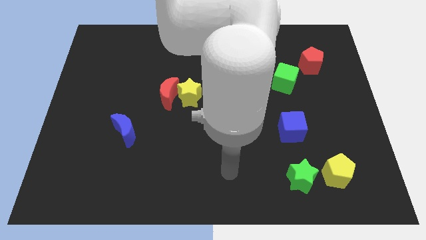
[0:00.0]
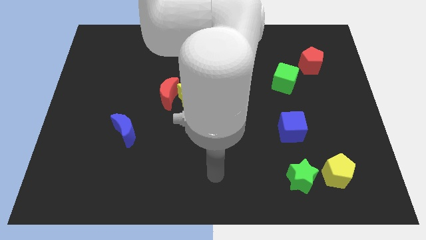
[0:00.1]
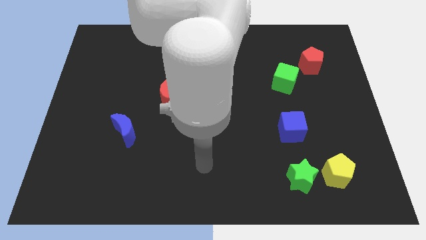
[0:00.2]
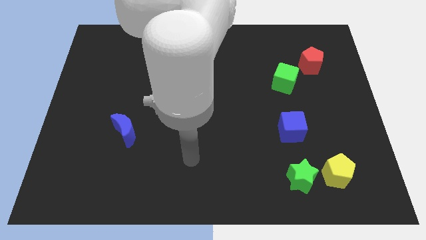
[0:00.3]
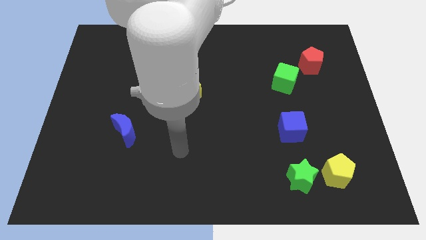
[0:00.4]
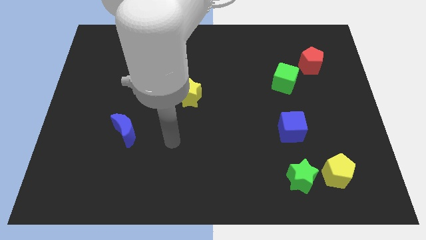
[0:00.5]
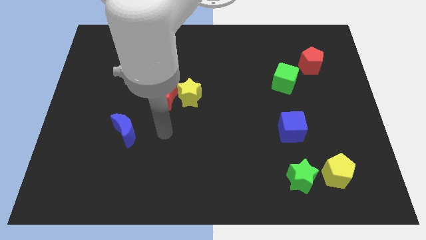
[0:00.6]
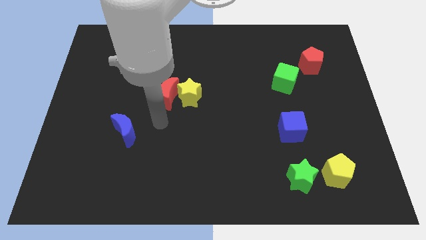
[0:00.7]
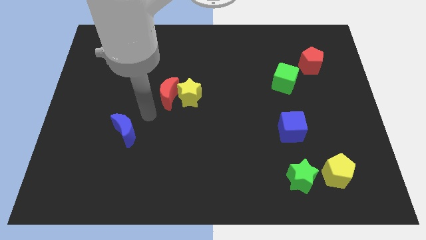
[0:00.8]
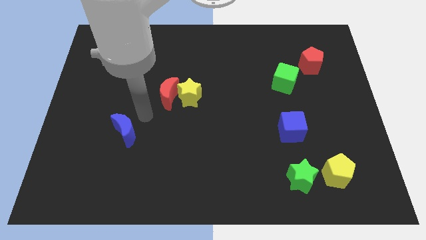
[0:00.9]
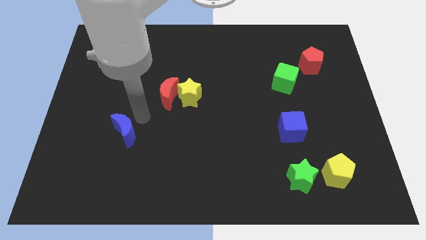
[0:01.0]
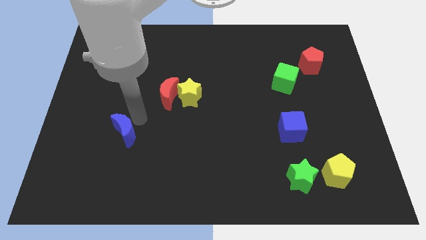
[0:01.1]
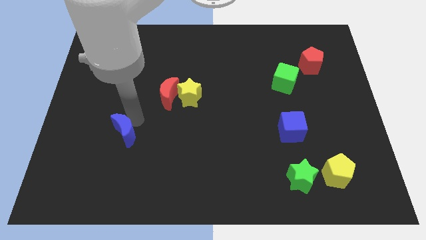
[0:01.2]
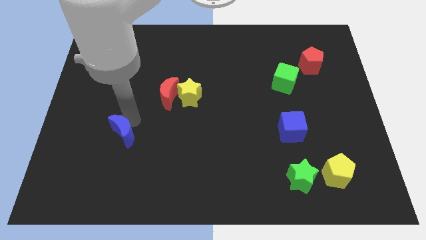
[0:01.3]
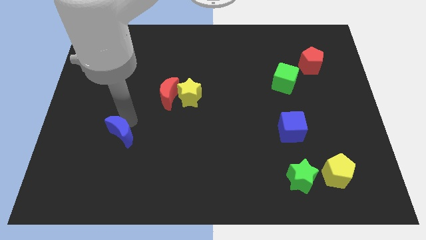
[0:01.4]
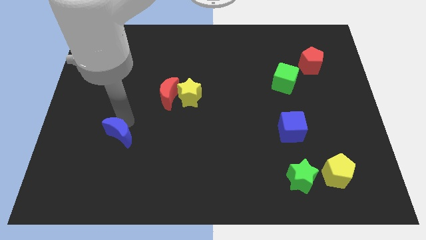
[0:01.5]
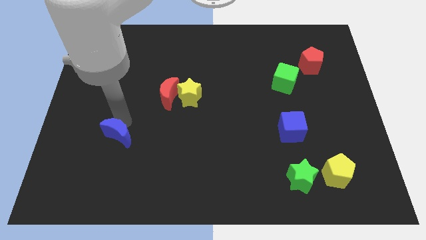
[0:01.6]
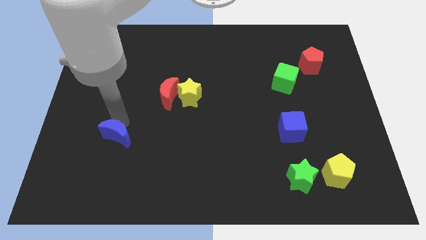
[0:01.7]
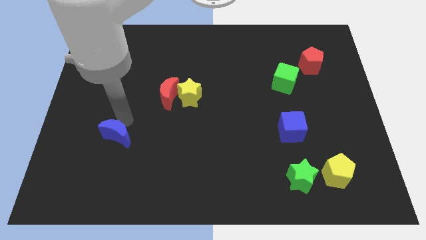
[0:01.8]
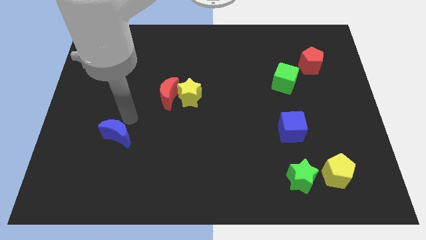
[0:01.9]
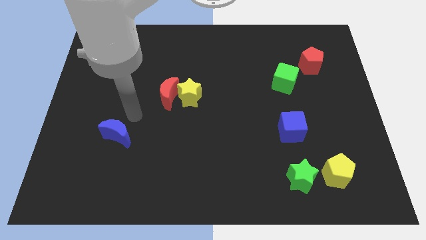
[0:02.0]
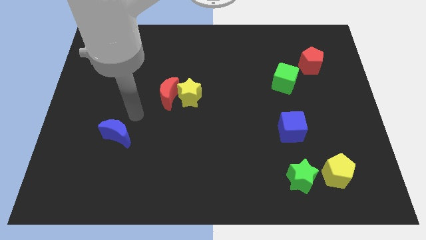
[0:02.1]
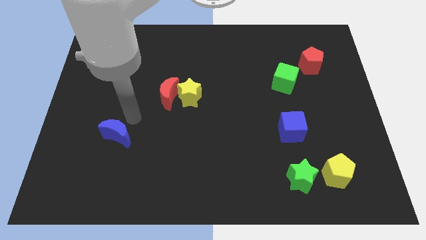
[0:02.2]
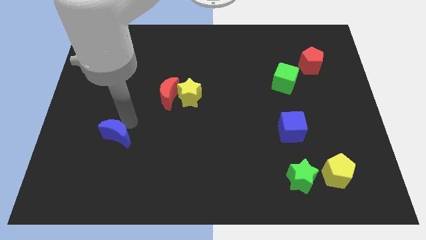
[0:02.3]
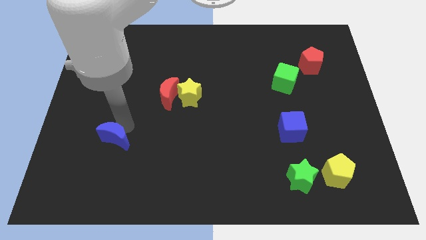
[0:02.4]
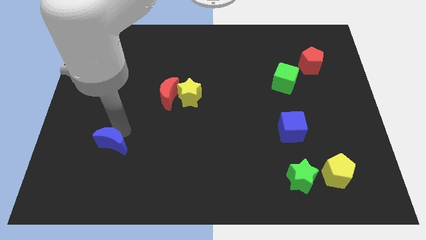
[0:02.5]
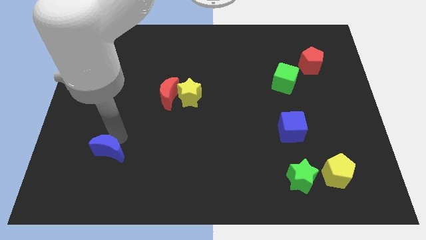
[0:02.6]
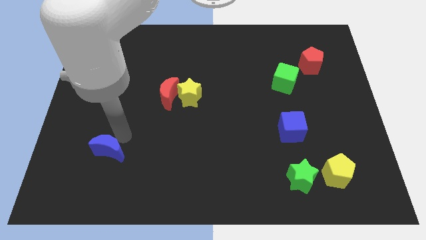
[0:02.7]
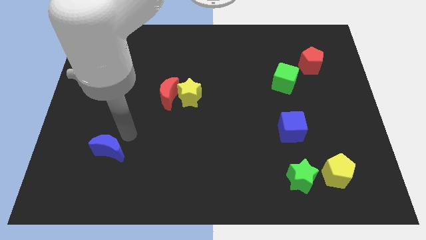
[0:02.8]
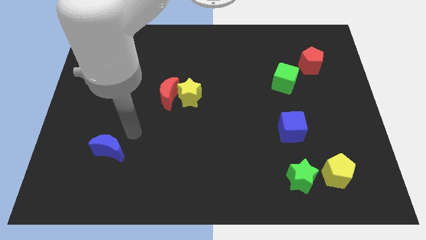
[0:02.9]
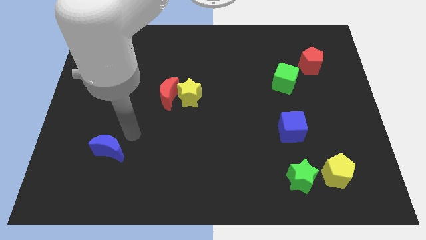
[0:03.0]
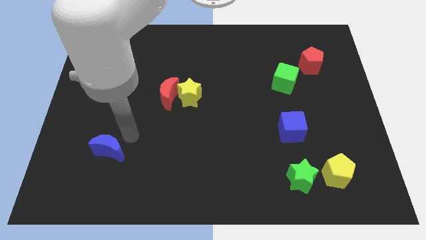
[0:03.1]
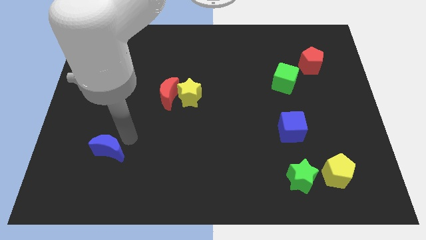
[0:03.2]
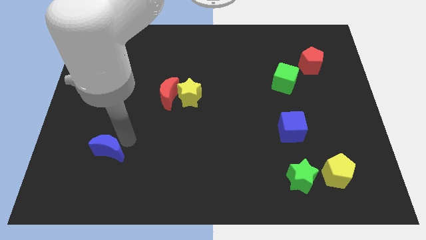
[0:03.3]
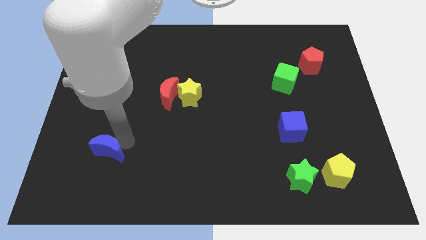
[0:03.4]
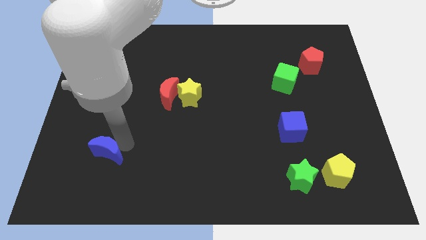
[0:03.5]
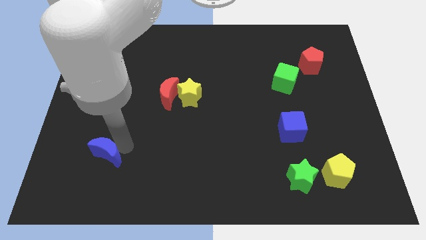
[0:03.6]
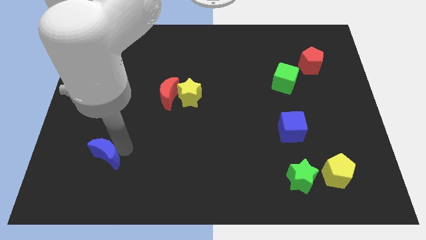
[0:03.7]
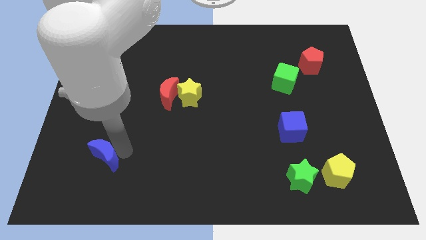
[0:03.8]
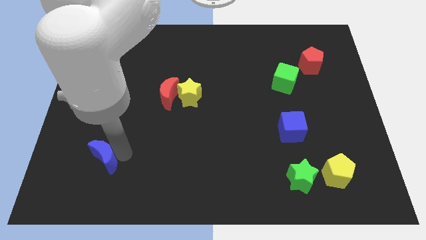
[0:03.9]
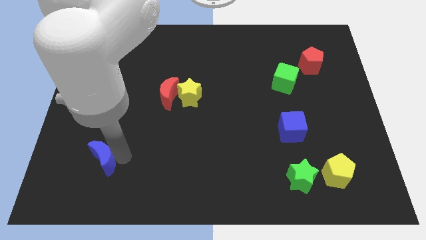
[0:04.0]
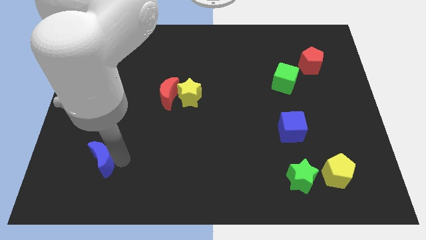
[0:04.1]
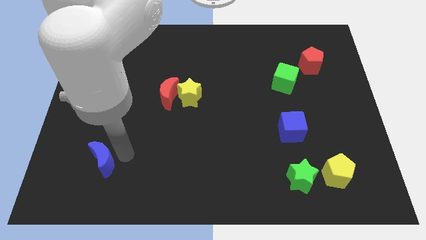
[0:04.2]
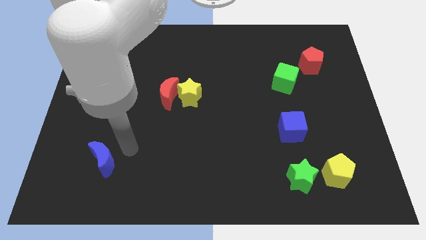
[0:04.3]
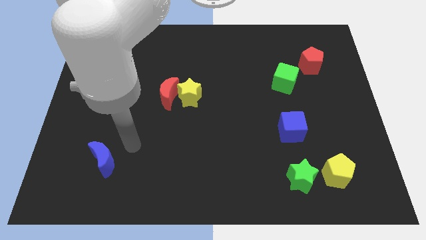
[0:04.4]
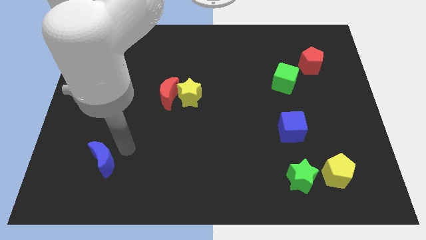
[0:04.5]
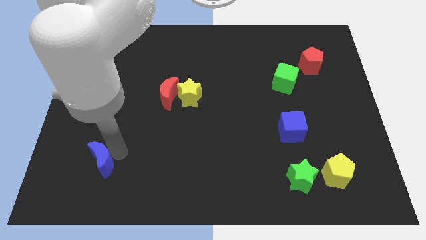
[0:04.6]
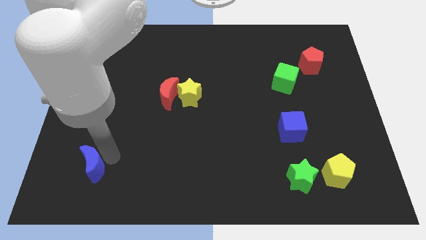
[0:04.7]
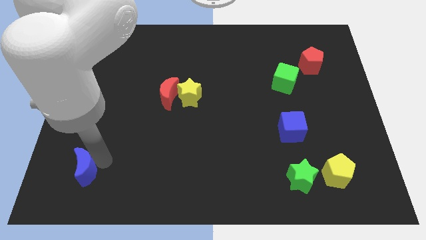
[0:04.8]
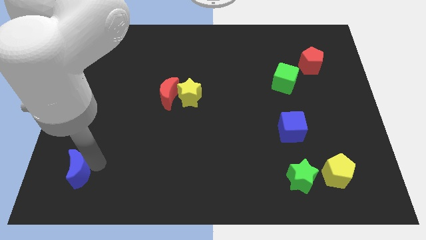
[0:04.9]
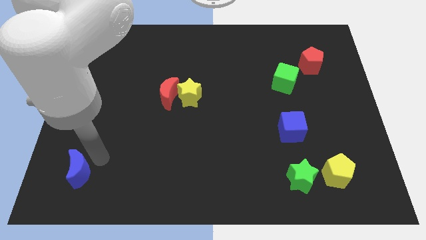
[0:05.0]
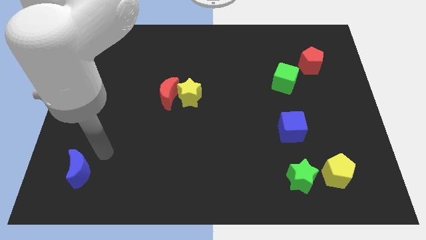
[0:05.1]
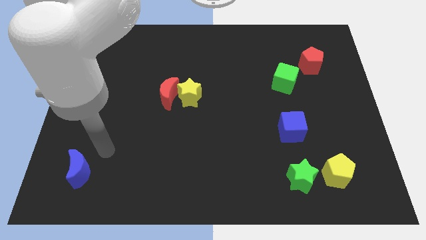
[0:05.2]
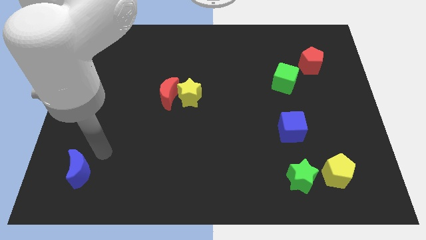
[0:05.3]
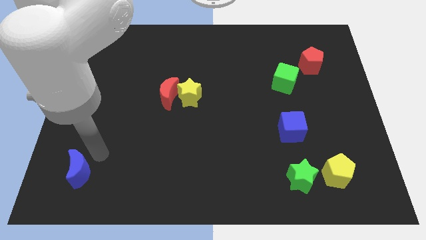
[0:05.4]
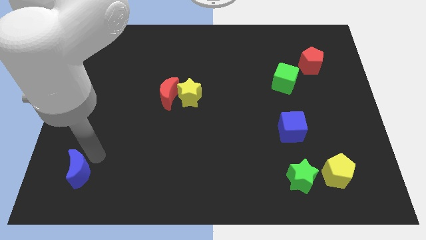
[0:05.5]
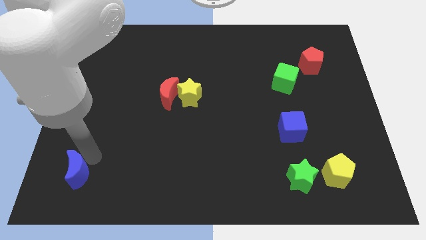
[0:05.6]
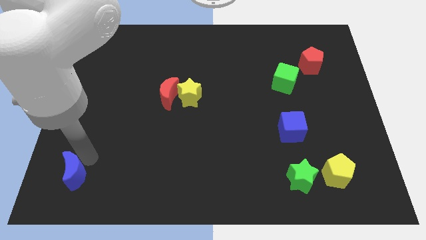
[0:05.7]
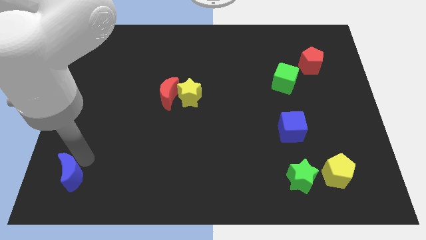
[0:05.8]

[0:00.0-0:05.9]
put the blue moon to the bottom left corner
